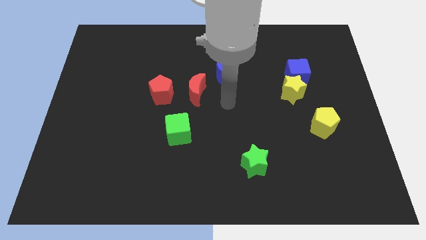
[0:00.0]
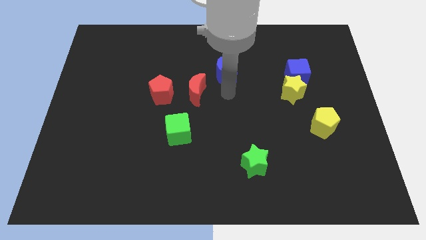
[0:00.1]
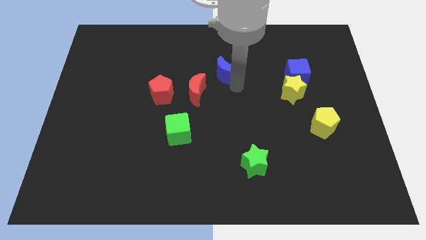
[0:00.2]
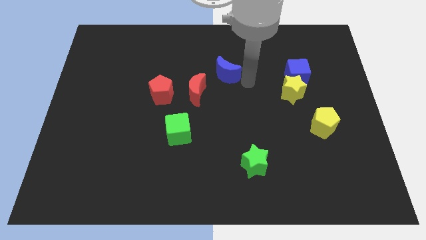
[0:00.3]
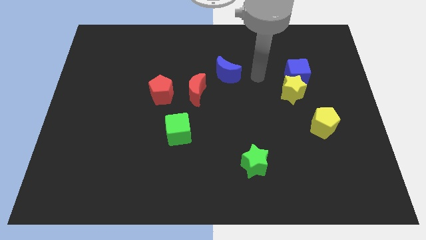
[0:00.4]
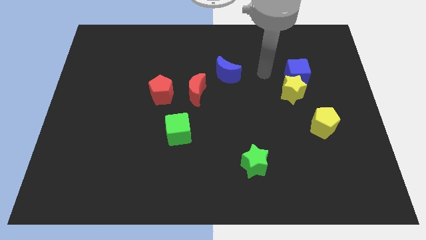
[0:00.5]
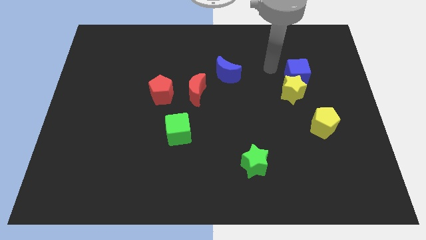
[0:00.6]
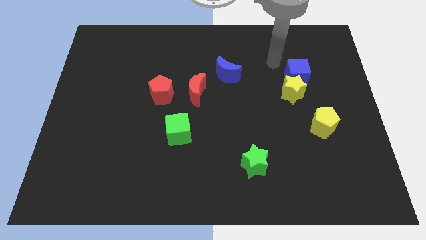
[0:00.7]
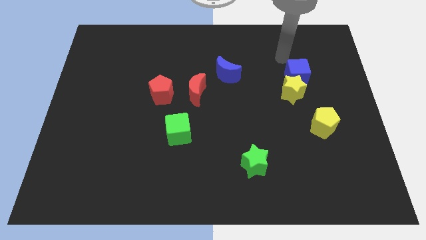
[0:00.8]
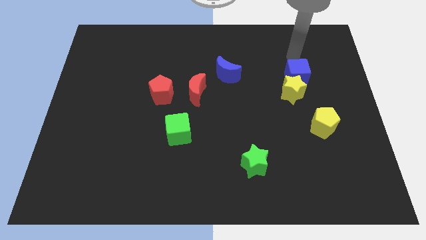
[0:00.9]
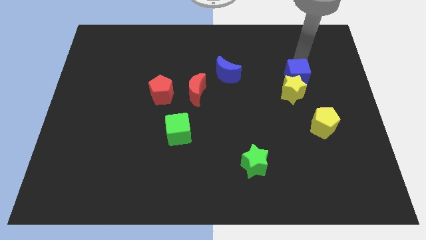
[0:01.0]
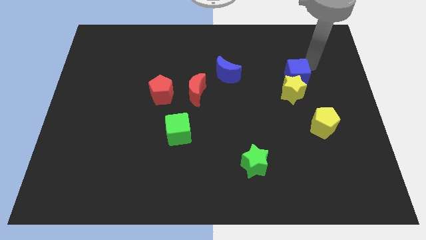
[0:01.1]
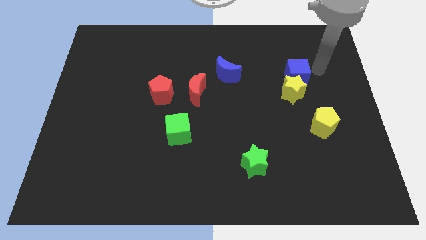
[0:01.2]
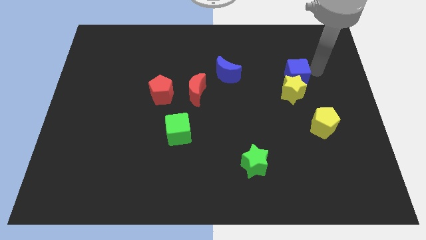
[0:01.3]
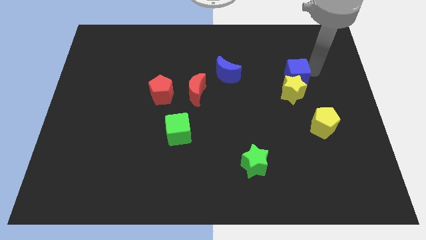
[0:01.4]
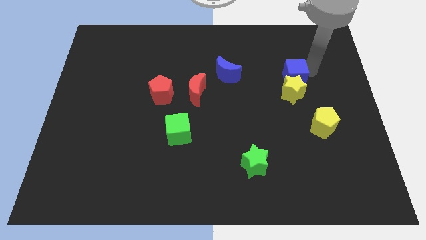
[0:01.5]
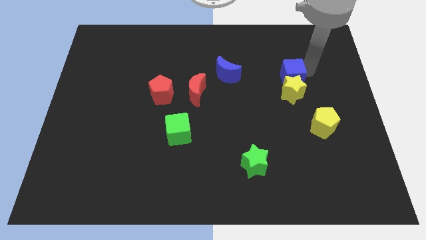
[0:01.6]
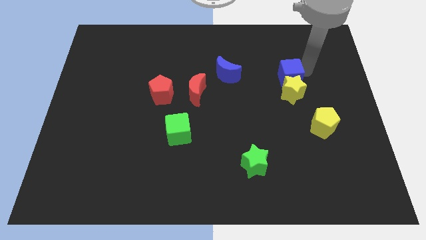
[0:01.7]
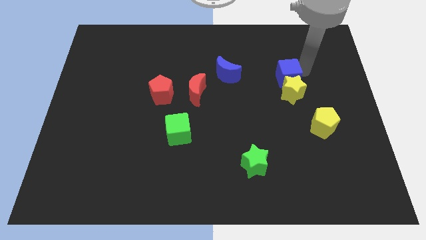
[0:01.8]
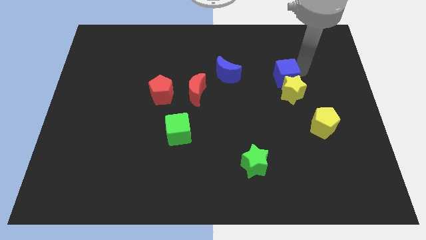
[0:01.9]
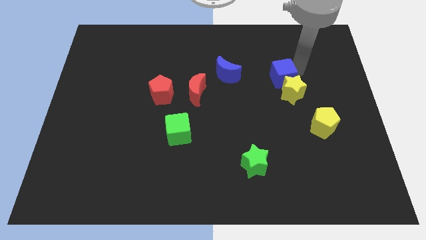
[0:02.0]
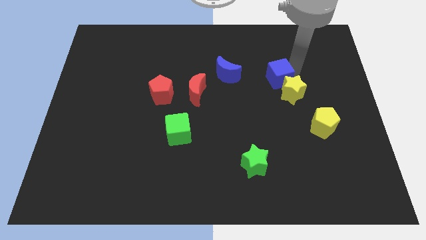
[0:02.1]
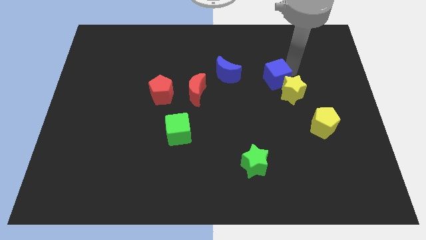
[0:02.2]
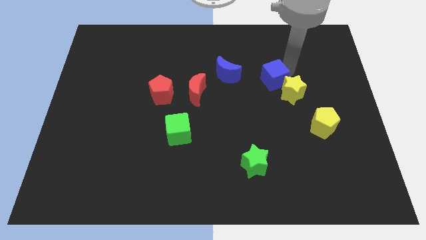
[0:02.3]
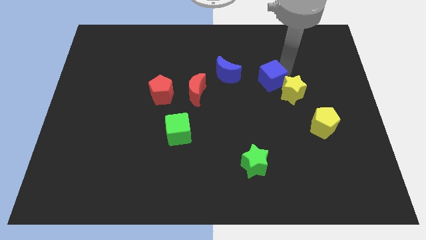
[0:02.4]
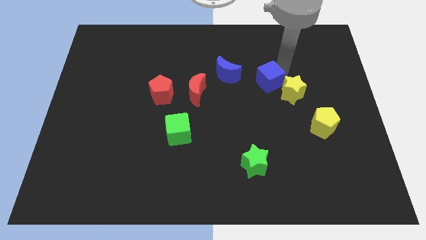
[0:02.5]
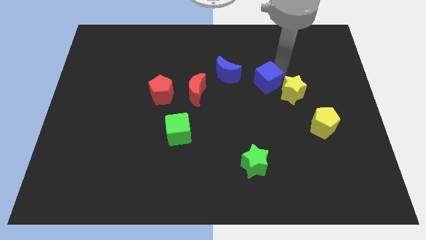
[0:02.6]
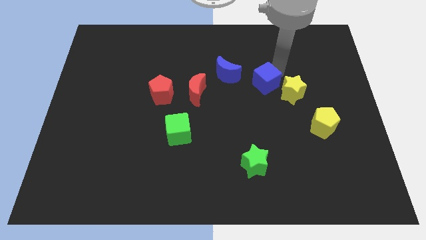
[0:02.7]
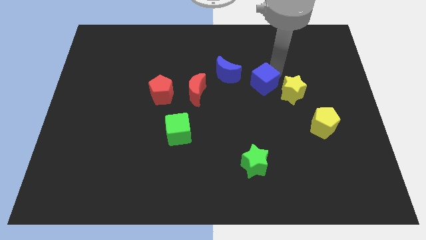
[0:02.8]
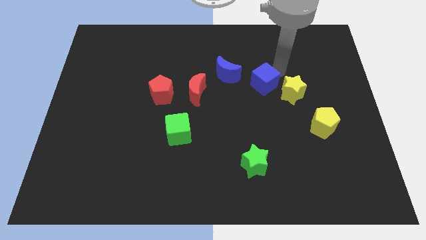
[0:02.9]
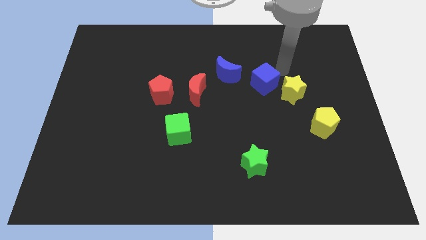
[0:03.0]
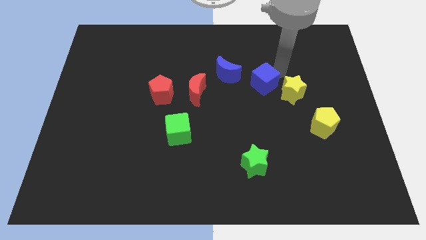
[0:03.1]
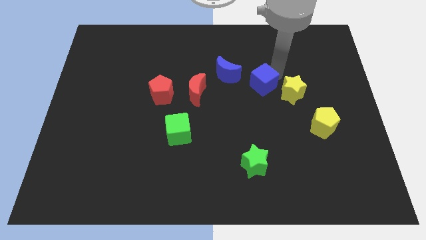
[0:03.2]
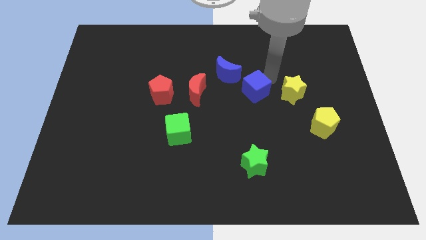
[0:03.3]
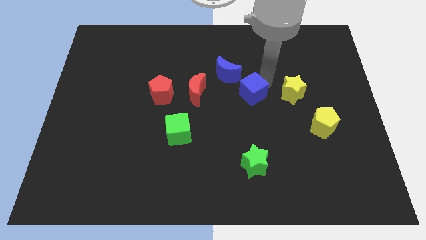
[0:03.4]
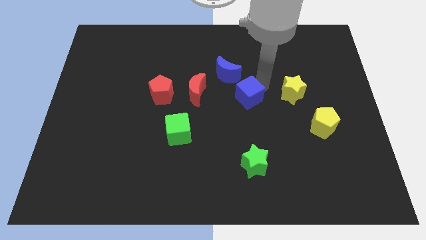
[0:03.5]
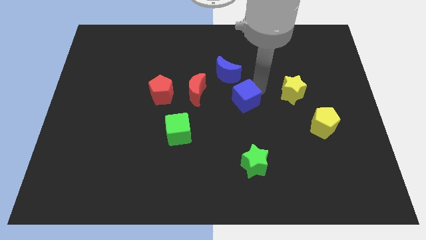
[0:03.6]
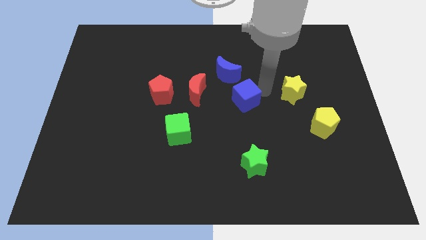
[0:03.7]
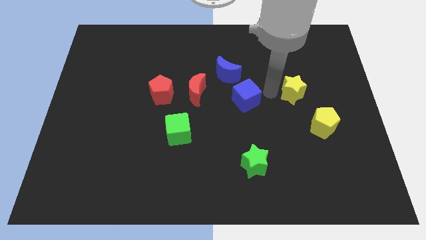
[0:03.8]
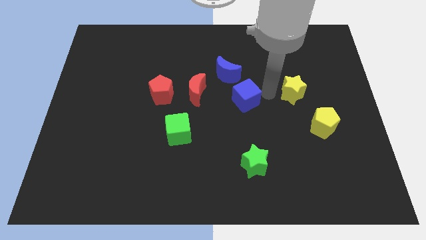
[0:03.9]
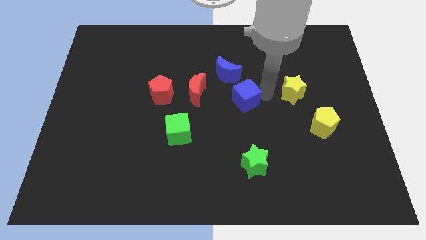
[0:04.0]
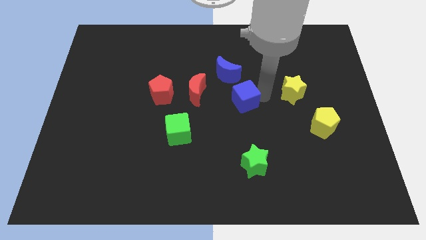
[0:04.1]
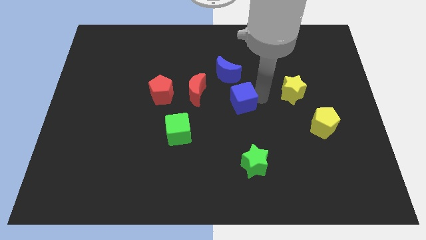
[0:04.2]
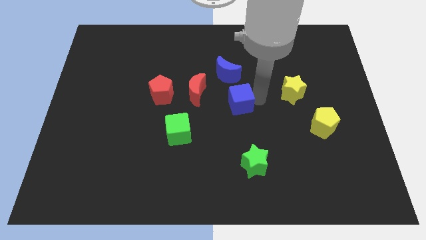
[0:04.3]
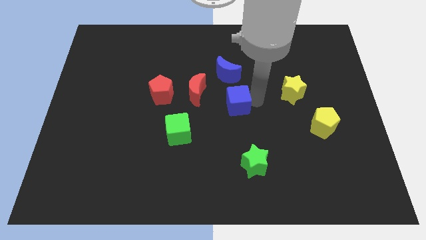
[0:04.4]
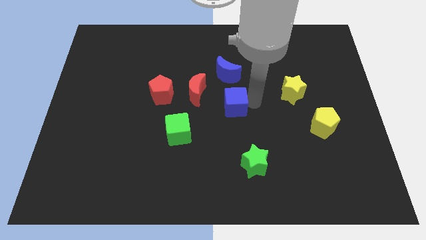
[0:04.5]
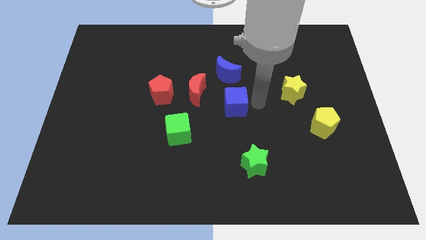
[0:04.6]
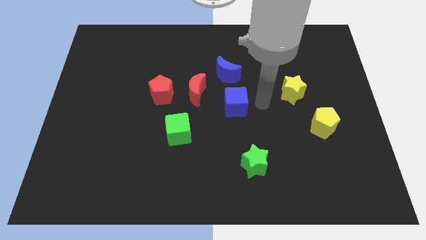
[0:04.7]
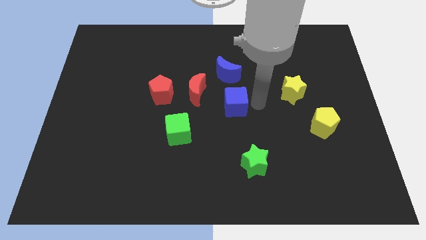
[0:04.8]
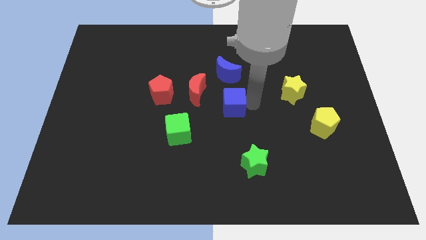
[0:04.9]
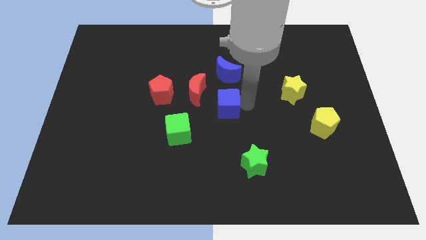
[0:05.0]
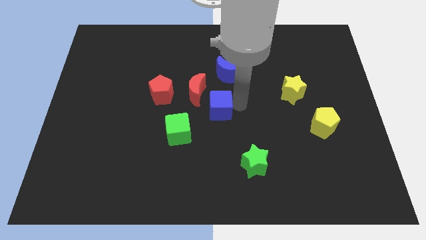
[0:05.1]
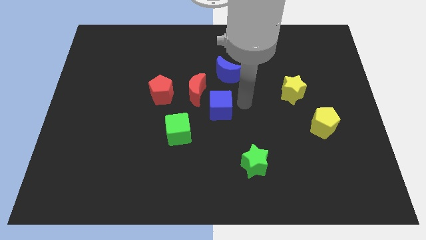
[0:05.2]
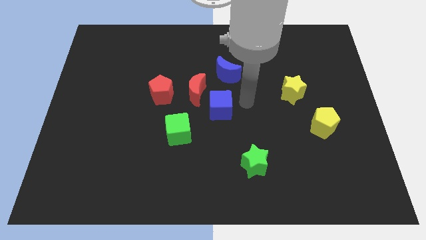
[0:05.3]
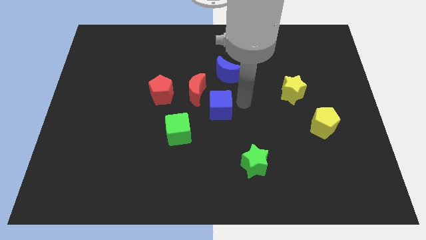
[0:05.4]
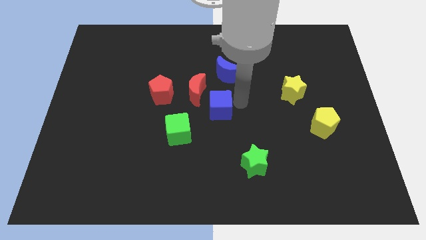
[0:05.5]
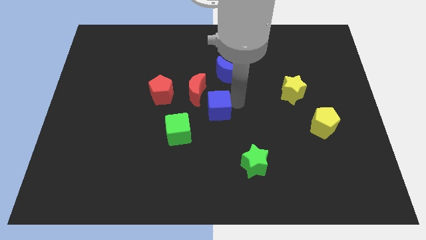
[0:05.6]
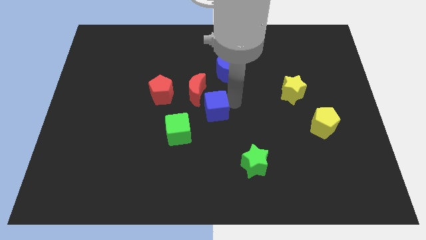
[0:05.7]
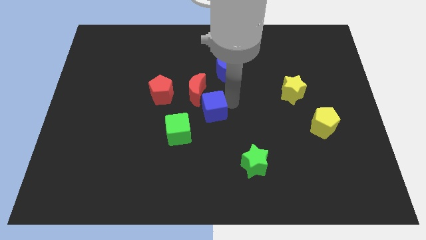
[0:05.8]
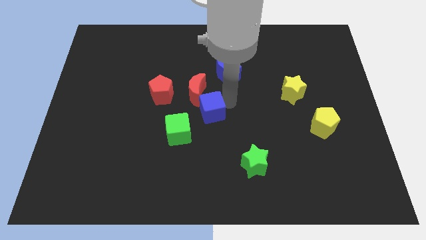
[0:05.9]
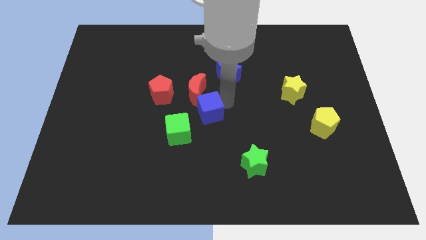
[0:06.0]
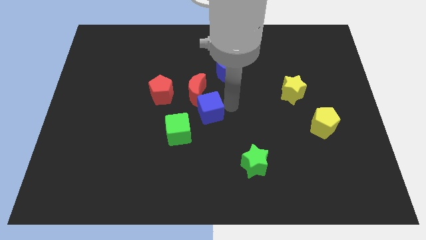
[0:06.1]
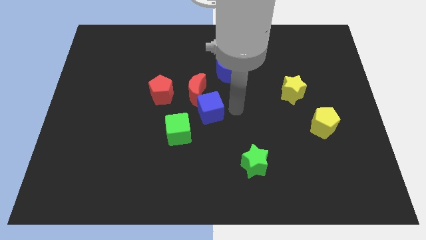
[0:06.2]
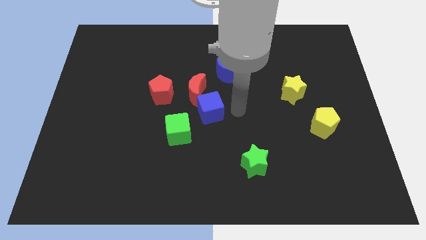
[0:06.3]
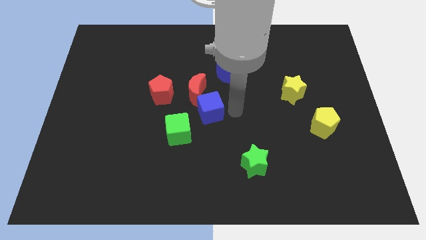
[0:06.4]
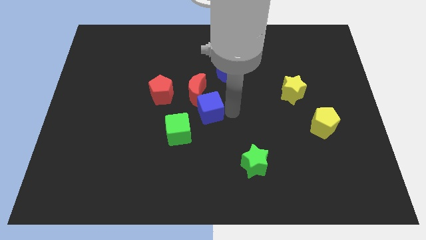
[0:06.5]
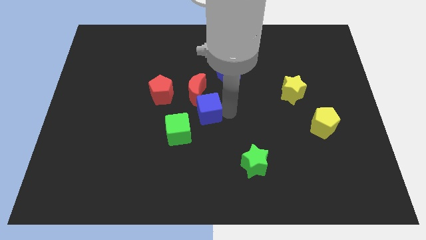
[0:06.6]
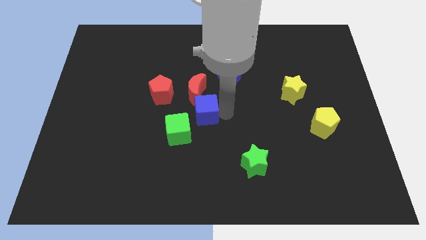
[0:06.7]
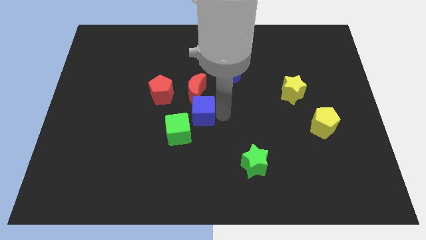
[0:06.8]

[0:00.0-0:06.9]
move the blue cube to the bottom right side of the red pentagon
